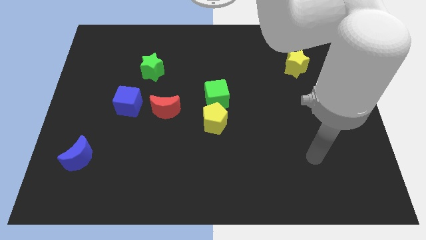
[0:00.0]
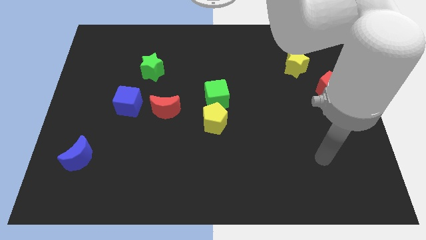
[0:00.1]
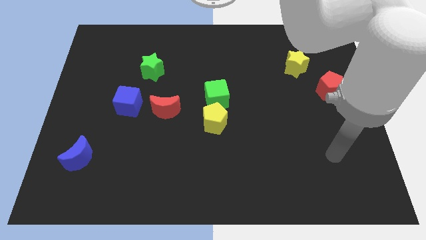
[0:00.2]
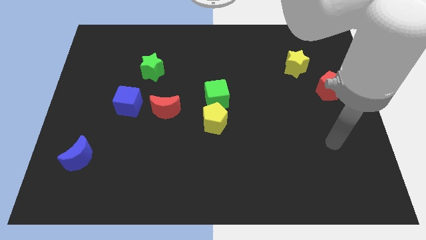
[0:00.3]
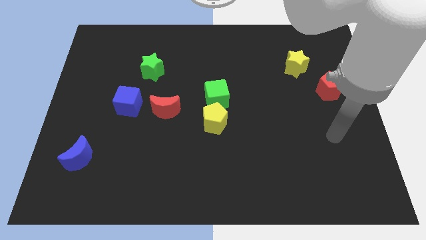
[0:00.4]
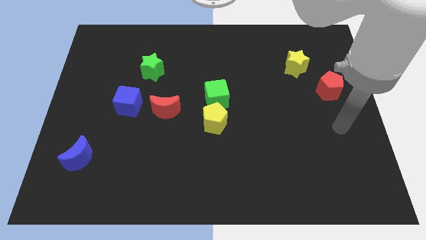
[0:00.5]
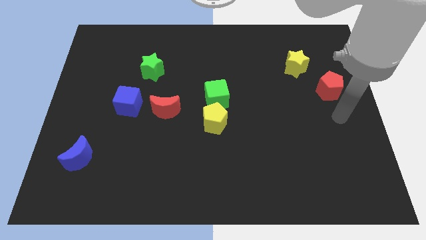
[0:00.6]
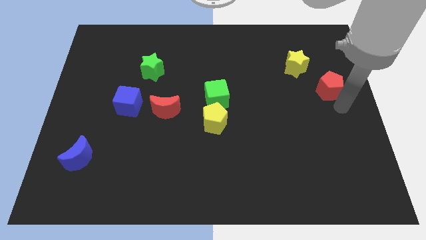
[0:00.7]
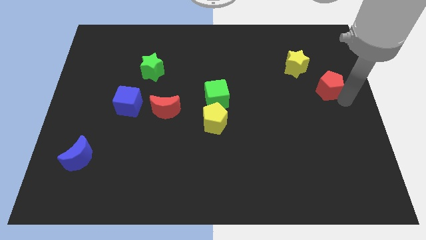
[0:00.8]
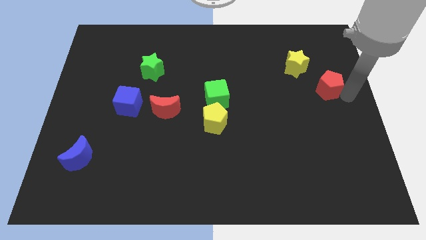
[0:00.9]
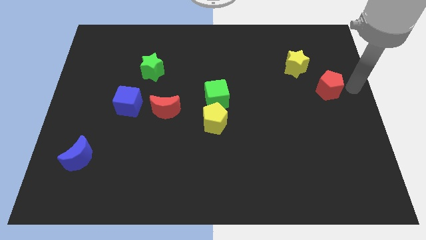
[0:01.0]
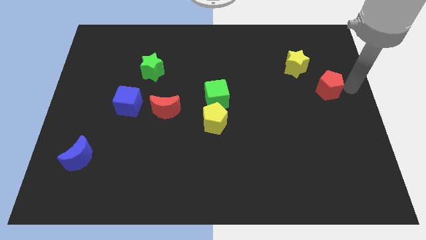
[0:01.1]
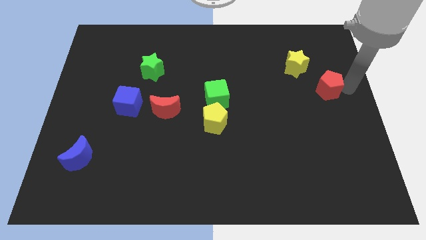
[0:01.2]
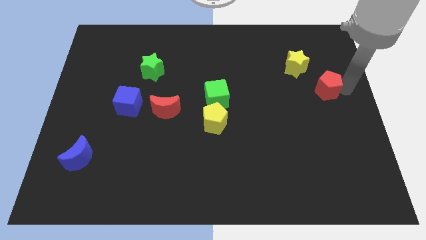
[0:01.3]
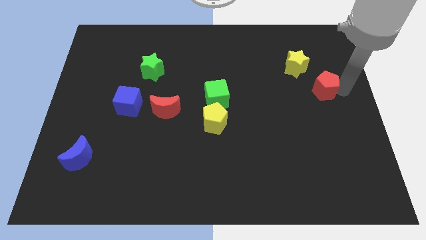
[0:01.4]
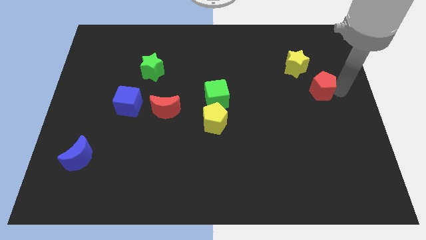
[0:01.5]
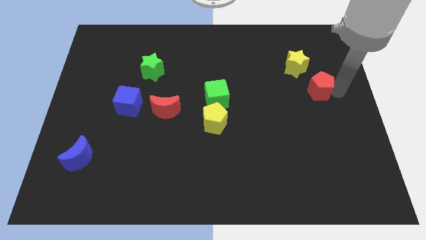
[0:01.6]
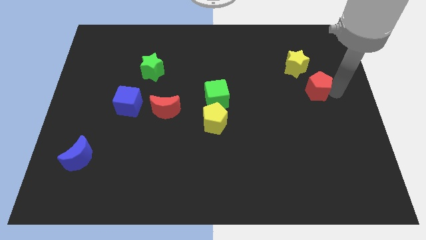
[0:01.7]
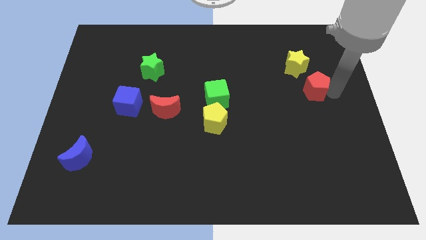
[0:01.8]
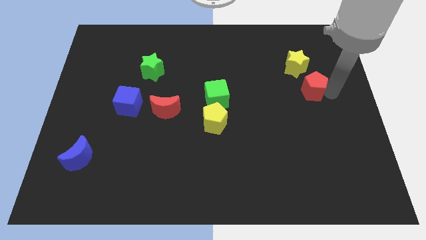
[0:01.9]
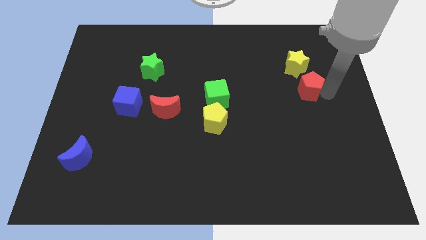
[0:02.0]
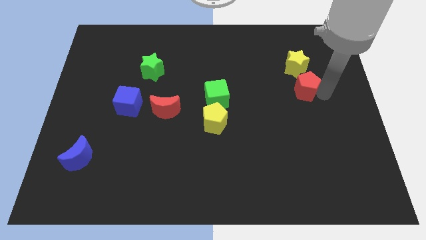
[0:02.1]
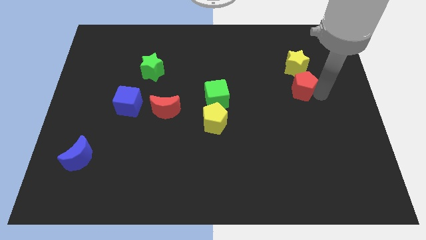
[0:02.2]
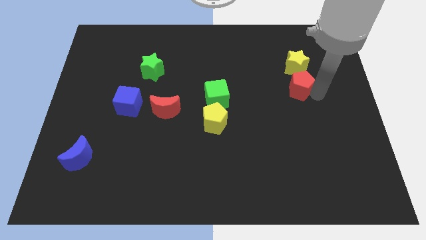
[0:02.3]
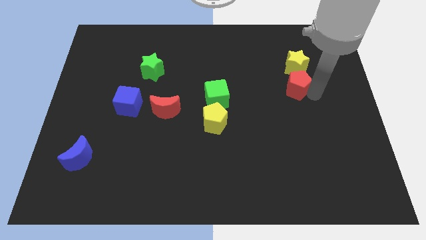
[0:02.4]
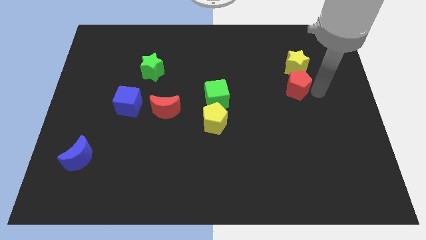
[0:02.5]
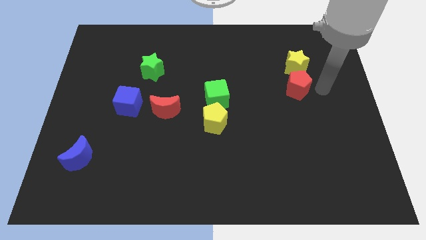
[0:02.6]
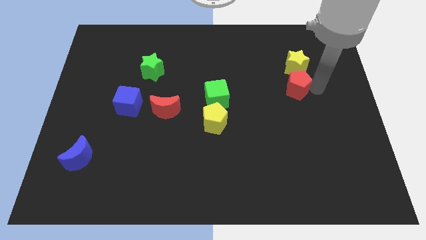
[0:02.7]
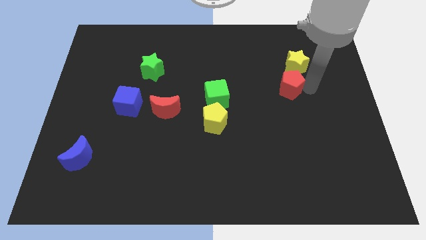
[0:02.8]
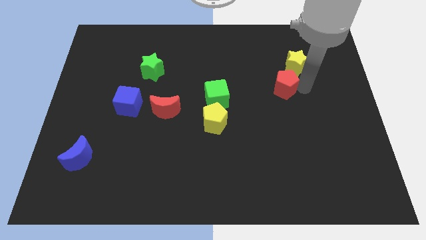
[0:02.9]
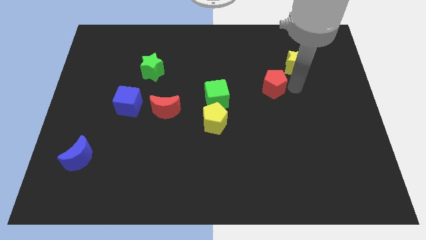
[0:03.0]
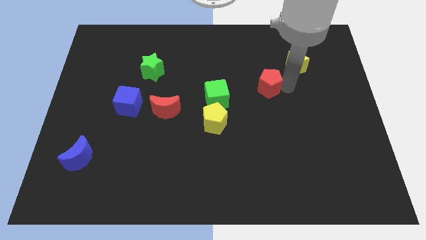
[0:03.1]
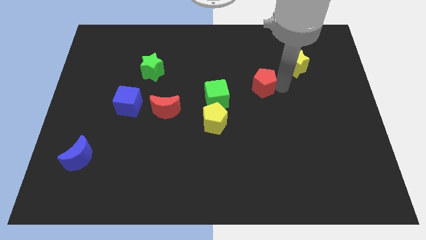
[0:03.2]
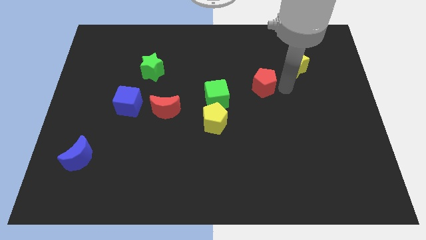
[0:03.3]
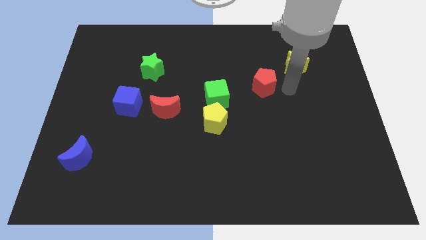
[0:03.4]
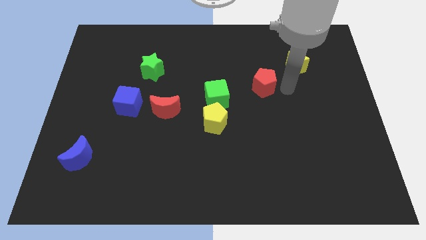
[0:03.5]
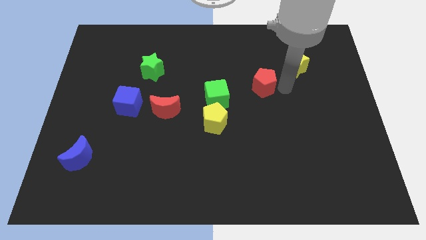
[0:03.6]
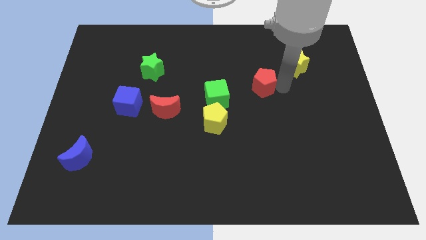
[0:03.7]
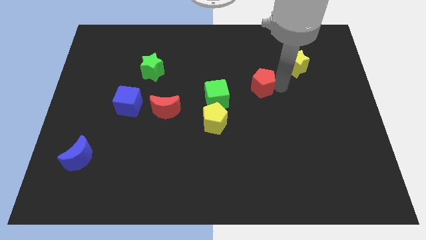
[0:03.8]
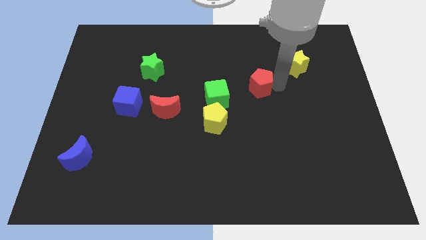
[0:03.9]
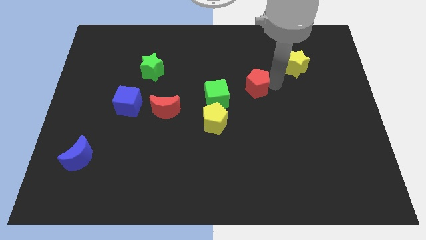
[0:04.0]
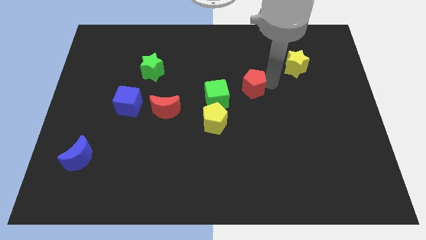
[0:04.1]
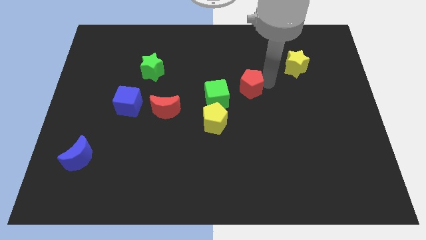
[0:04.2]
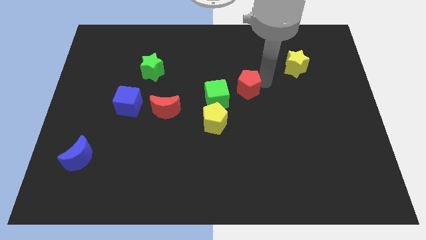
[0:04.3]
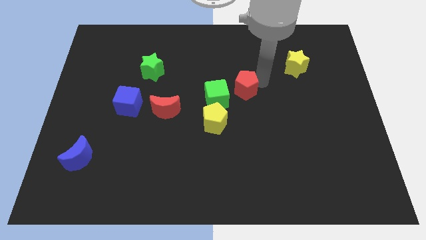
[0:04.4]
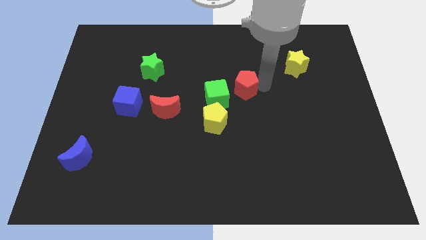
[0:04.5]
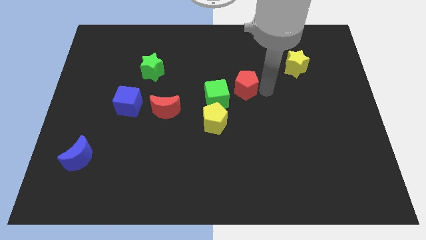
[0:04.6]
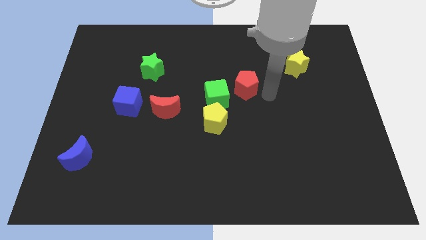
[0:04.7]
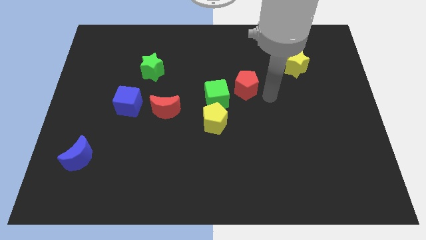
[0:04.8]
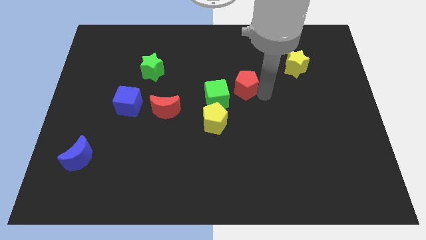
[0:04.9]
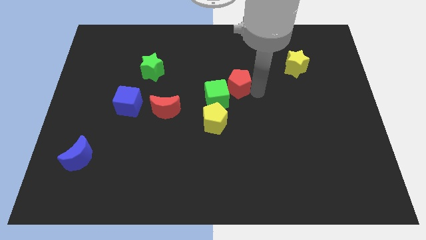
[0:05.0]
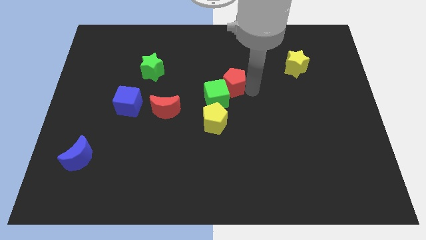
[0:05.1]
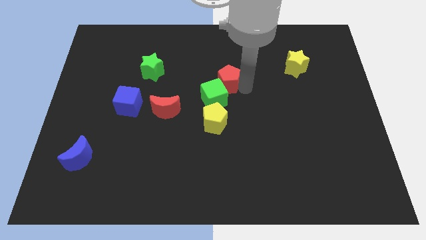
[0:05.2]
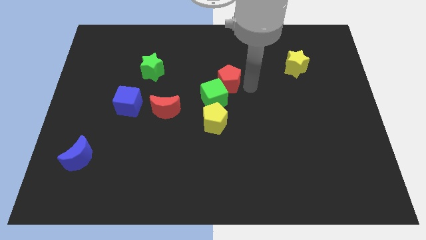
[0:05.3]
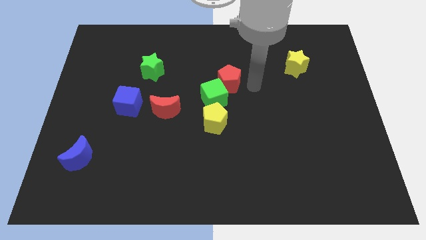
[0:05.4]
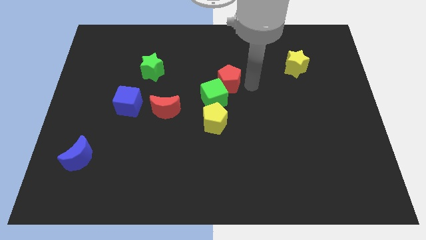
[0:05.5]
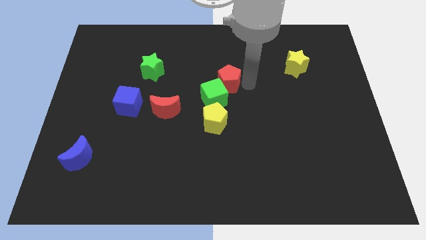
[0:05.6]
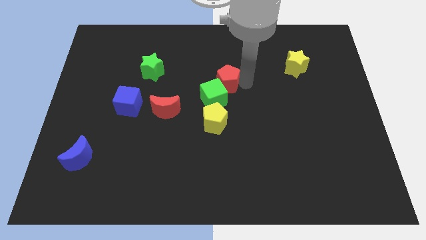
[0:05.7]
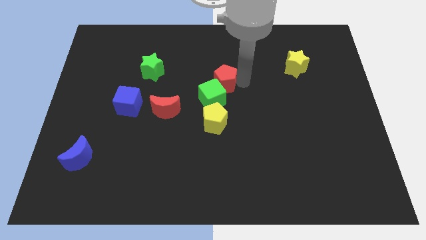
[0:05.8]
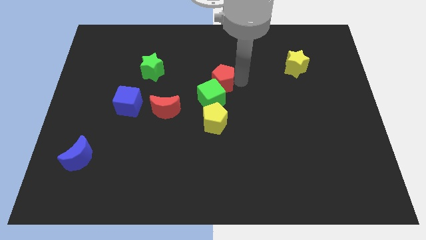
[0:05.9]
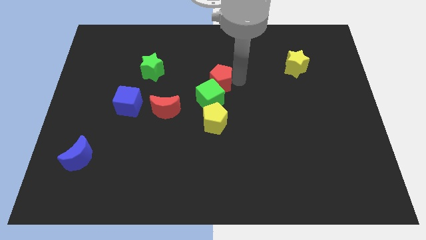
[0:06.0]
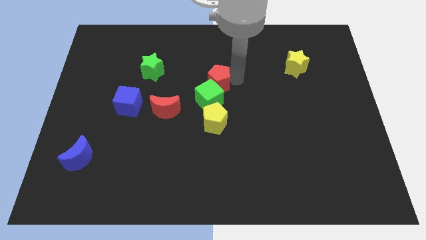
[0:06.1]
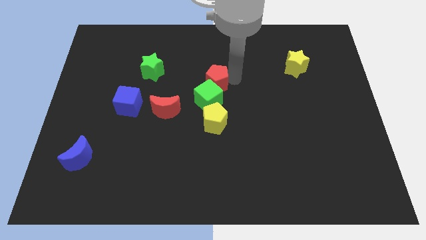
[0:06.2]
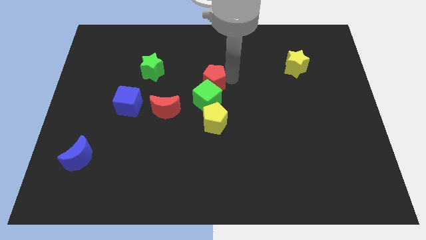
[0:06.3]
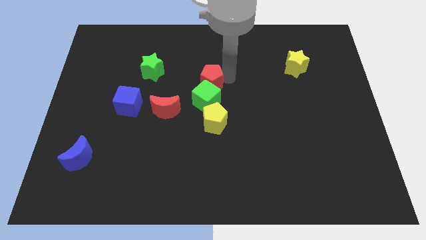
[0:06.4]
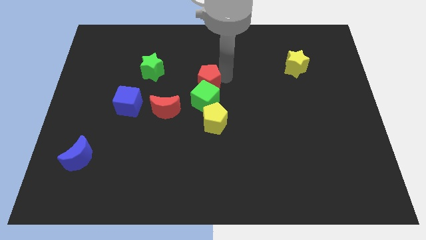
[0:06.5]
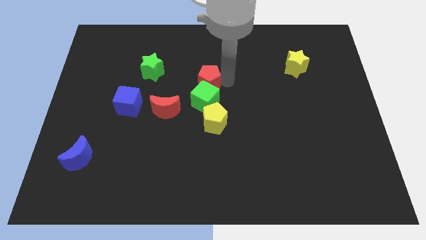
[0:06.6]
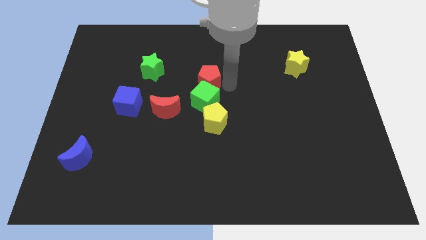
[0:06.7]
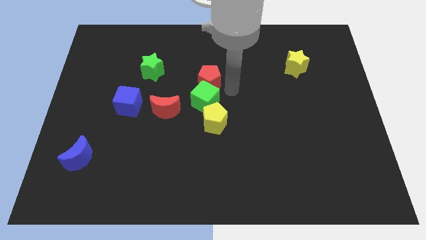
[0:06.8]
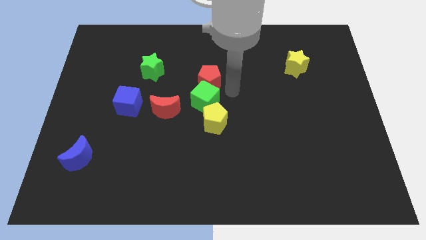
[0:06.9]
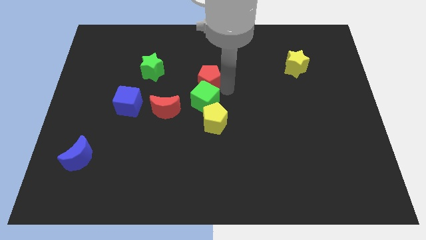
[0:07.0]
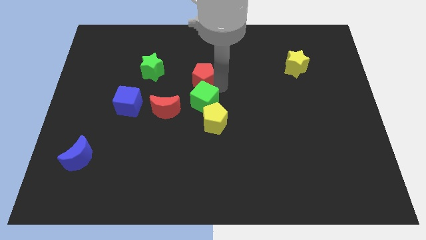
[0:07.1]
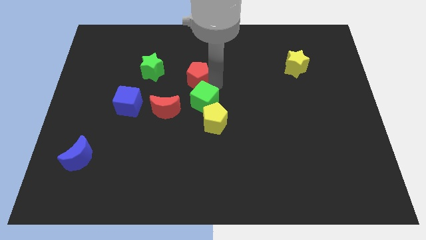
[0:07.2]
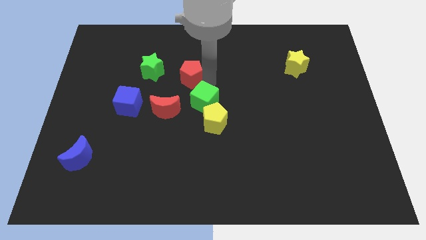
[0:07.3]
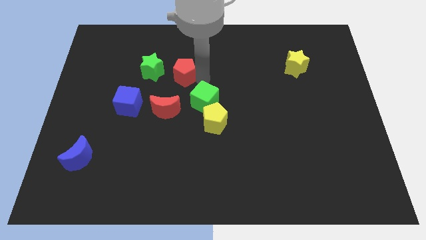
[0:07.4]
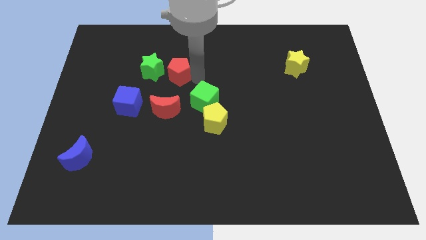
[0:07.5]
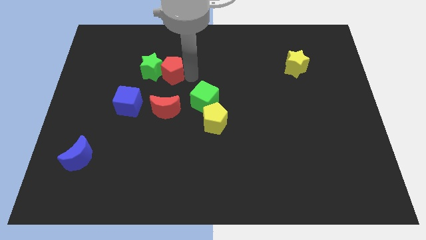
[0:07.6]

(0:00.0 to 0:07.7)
move the red pentagon close to the green star
